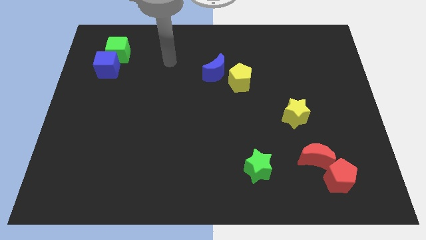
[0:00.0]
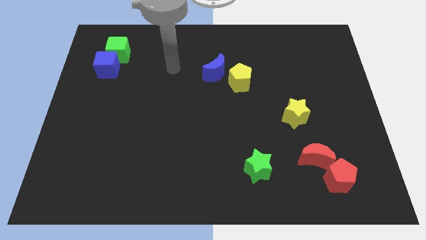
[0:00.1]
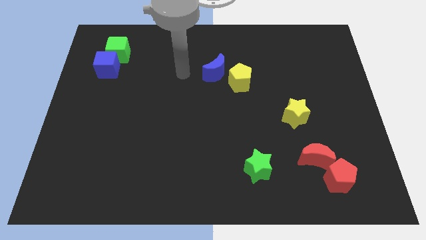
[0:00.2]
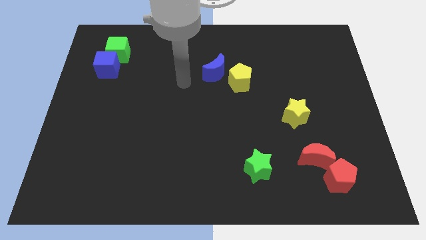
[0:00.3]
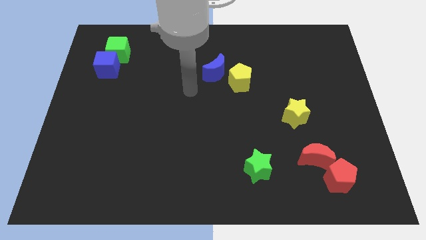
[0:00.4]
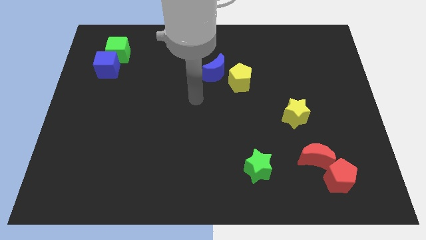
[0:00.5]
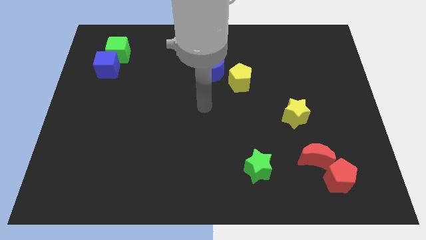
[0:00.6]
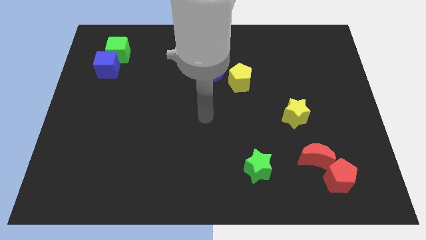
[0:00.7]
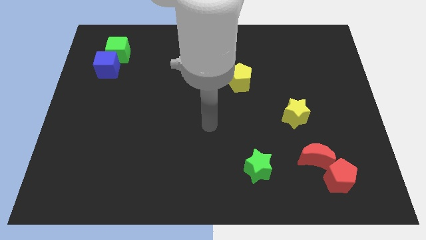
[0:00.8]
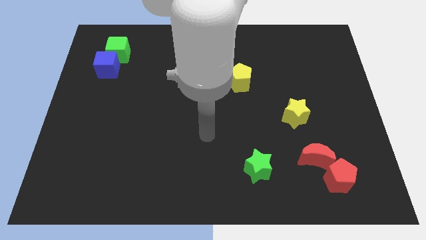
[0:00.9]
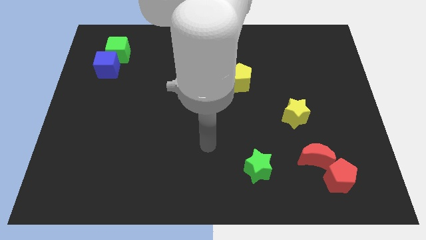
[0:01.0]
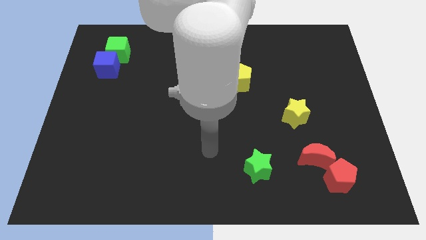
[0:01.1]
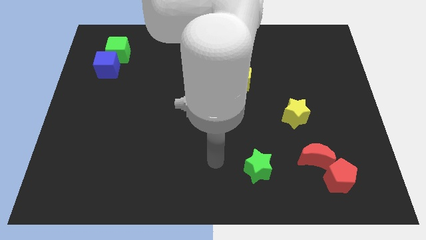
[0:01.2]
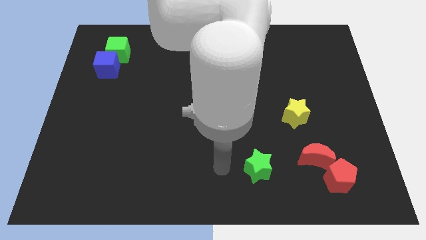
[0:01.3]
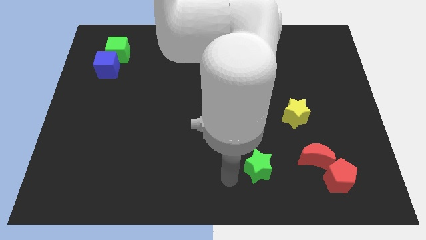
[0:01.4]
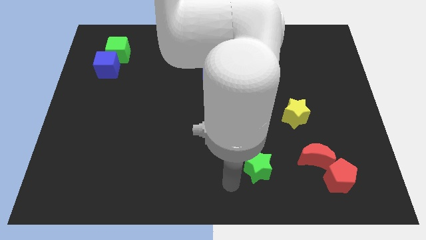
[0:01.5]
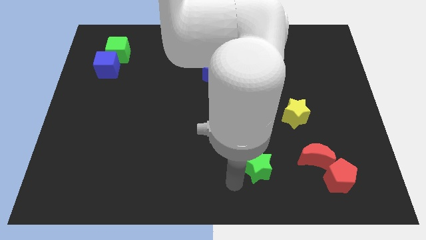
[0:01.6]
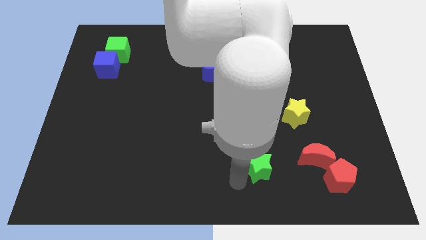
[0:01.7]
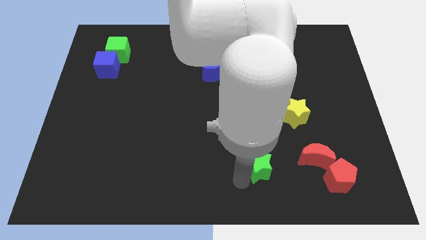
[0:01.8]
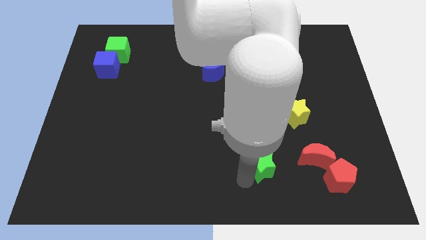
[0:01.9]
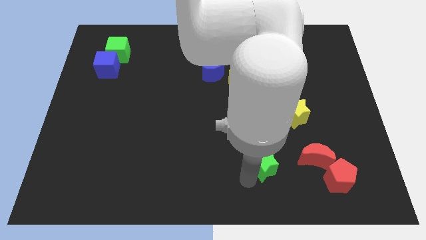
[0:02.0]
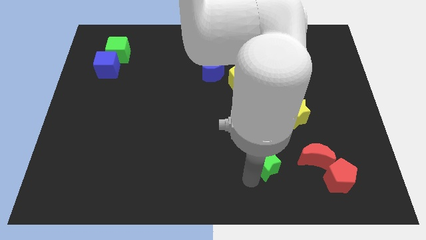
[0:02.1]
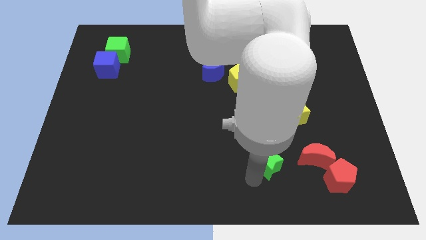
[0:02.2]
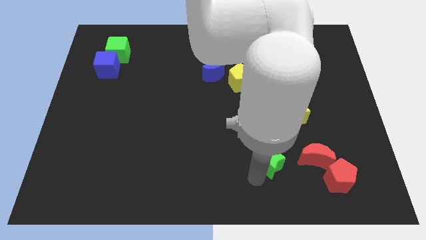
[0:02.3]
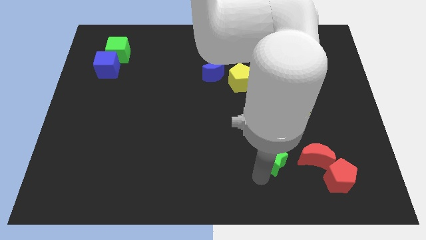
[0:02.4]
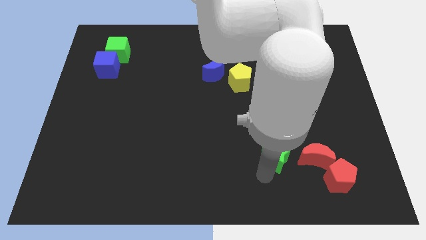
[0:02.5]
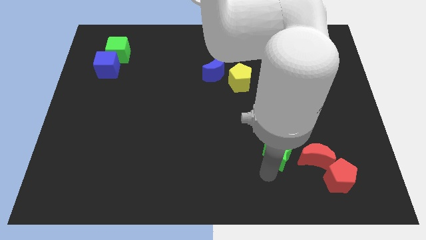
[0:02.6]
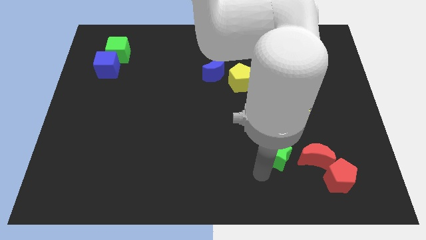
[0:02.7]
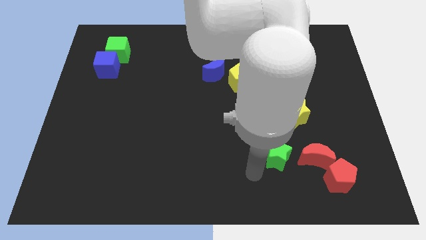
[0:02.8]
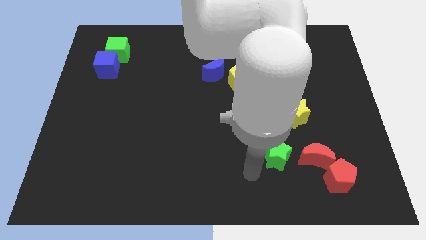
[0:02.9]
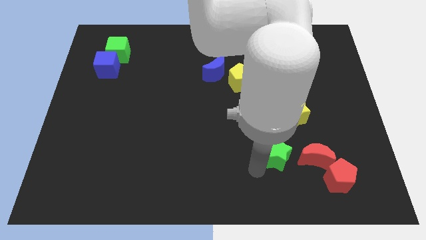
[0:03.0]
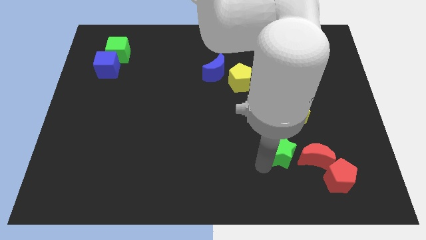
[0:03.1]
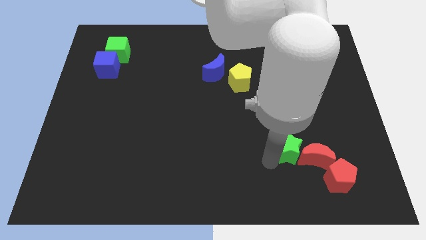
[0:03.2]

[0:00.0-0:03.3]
move the green star up and to the right somewhat

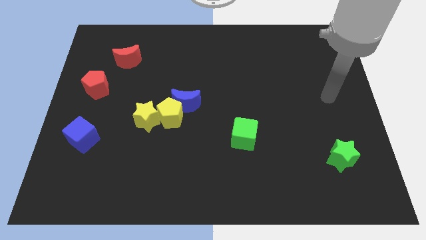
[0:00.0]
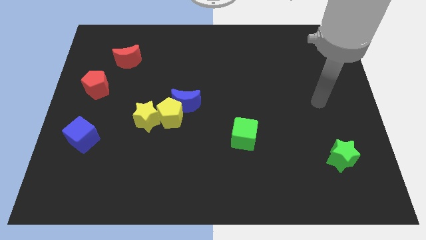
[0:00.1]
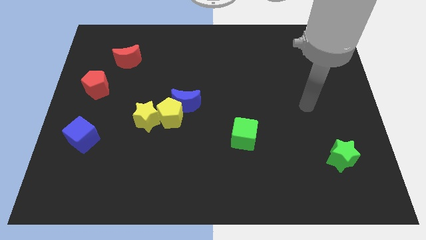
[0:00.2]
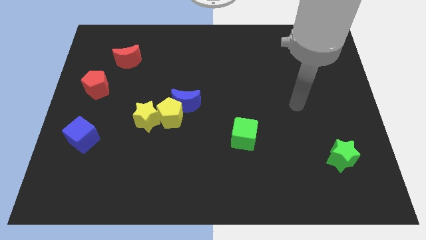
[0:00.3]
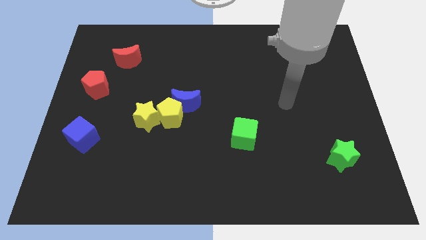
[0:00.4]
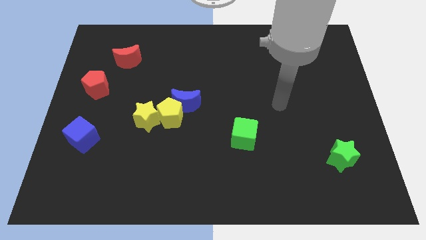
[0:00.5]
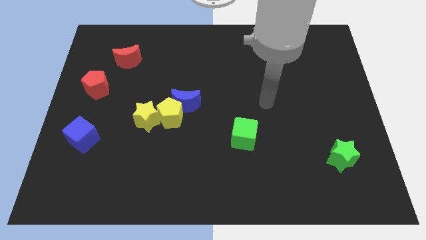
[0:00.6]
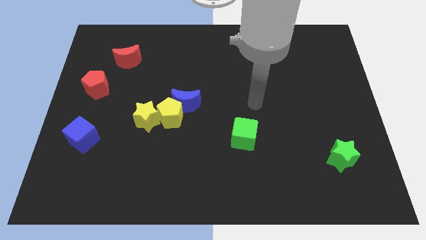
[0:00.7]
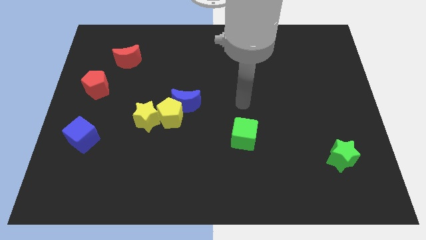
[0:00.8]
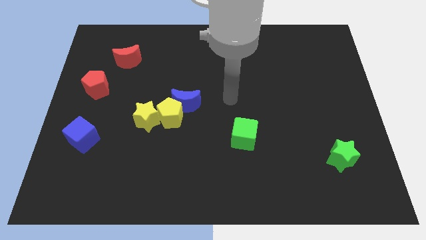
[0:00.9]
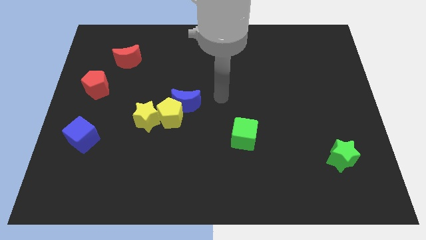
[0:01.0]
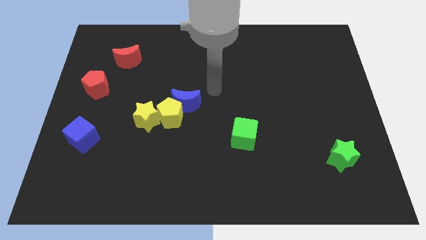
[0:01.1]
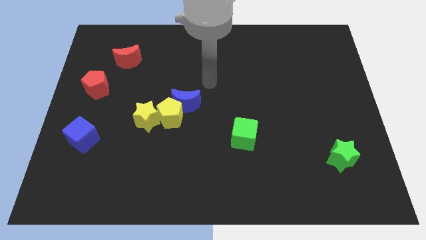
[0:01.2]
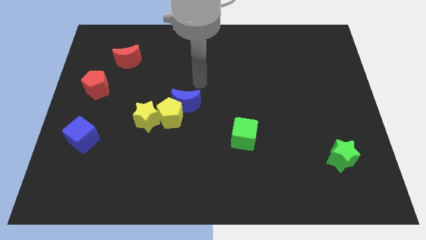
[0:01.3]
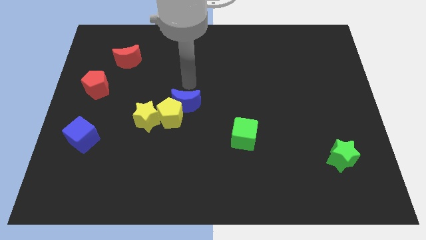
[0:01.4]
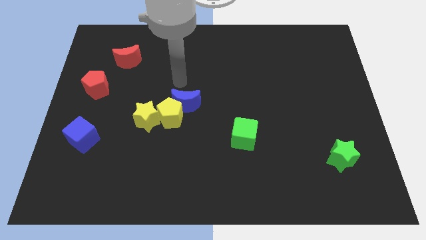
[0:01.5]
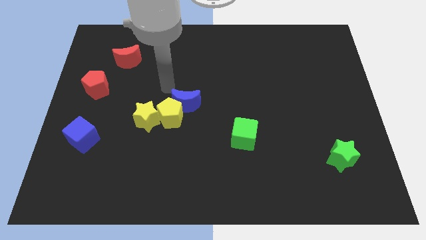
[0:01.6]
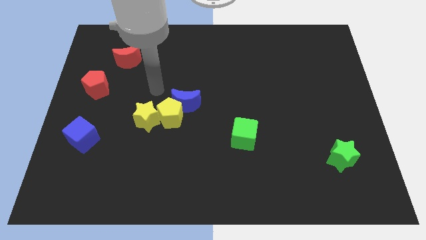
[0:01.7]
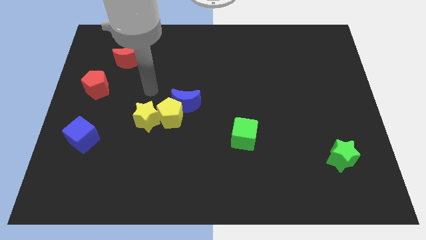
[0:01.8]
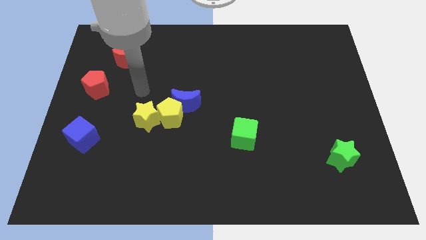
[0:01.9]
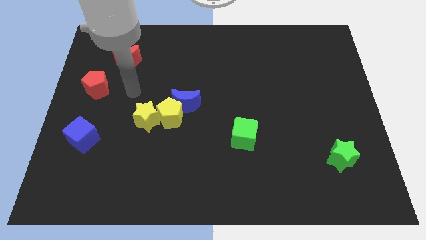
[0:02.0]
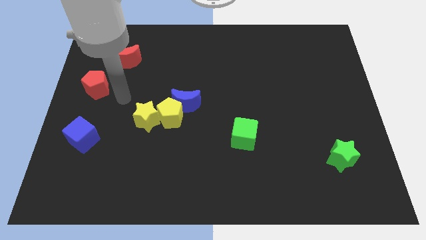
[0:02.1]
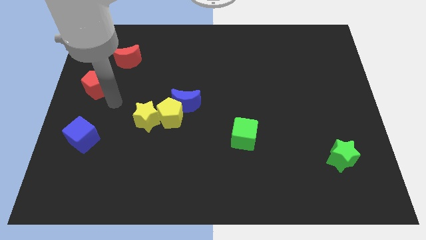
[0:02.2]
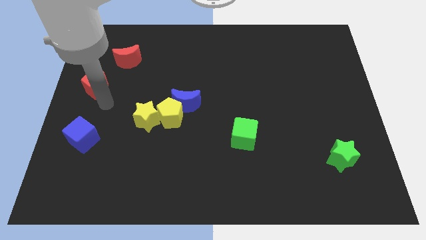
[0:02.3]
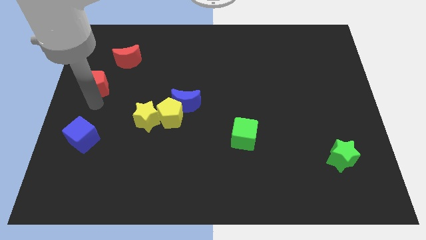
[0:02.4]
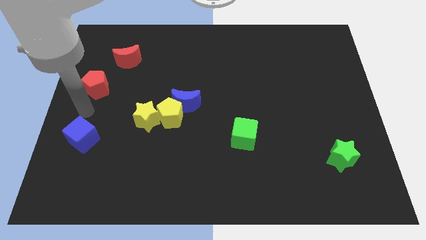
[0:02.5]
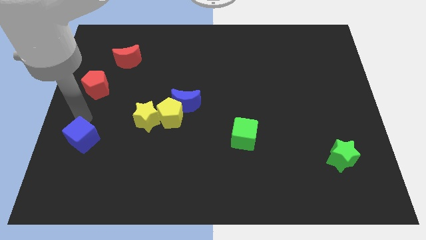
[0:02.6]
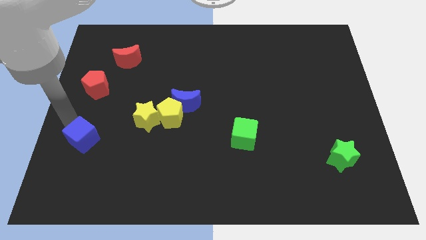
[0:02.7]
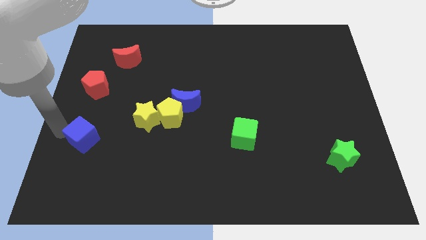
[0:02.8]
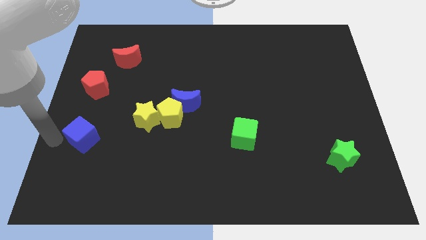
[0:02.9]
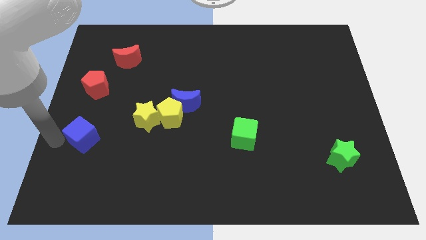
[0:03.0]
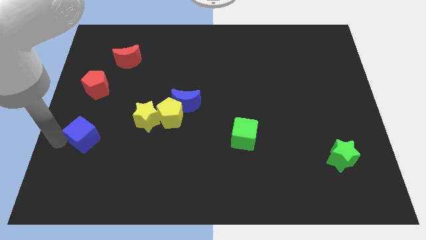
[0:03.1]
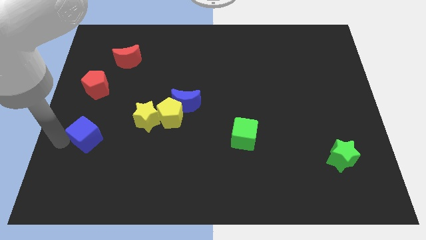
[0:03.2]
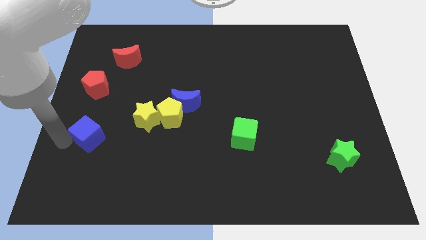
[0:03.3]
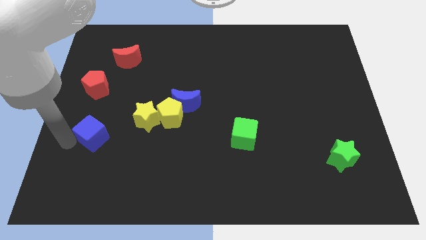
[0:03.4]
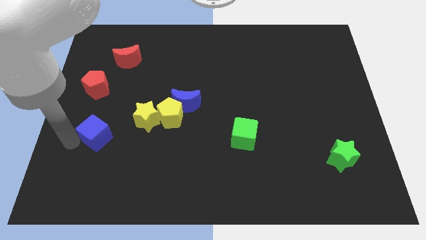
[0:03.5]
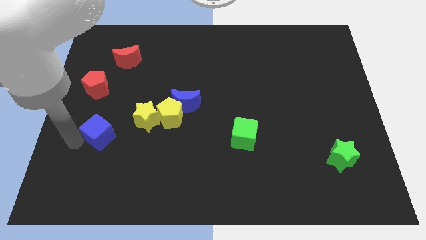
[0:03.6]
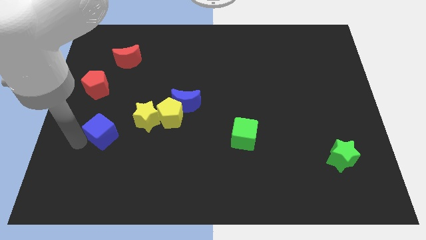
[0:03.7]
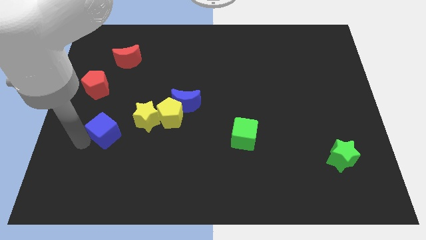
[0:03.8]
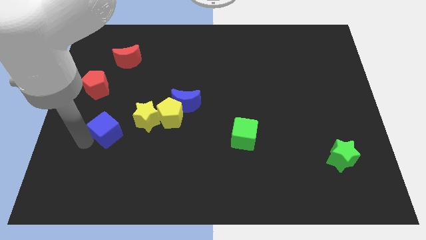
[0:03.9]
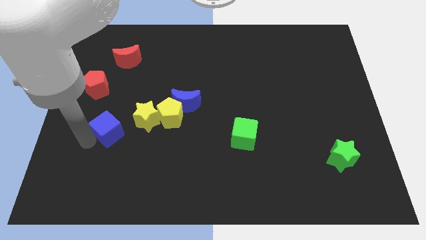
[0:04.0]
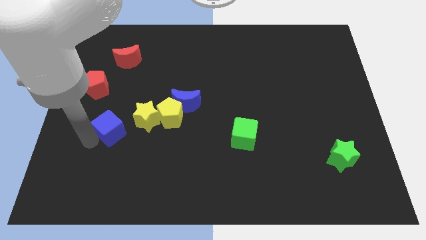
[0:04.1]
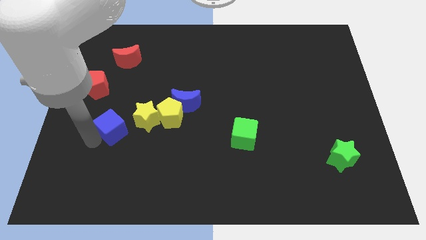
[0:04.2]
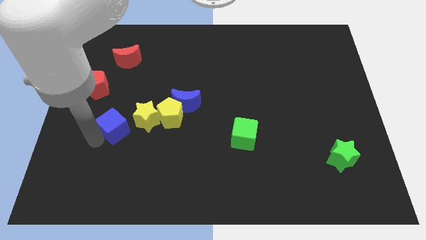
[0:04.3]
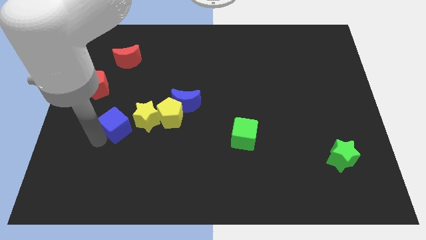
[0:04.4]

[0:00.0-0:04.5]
slightly slide the blue cube right
